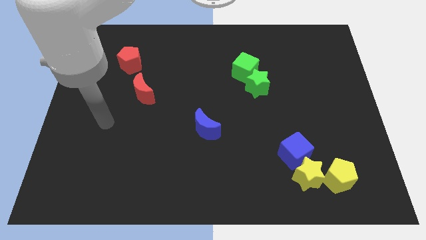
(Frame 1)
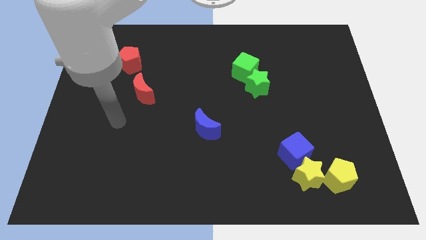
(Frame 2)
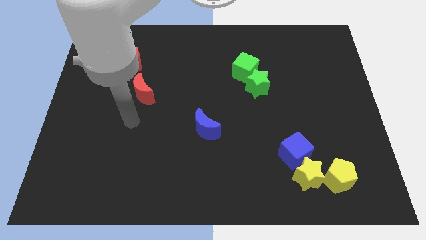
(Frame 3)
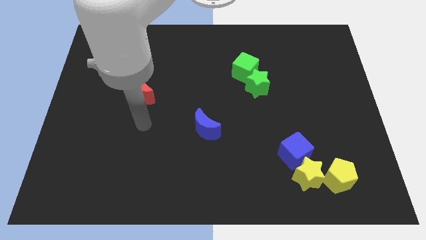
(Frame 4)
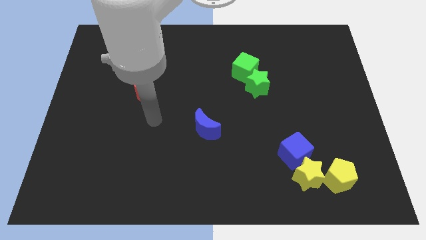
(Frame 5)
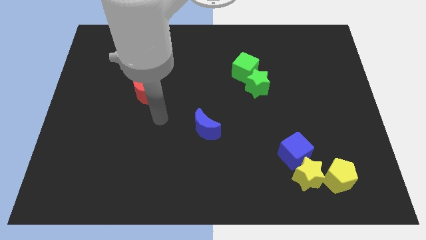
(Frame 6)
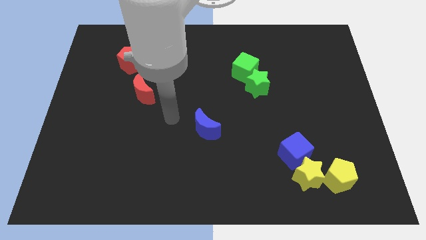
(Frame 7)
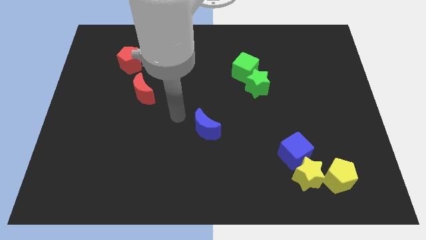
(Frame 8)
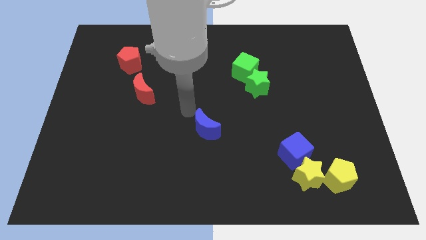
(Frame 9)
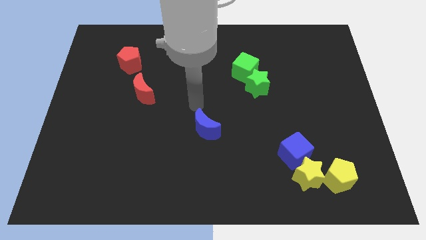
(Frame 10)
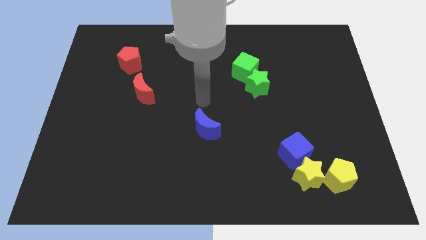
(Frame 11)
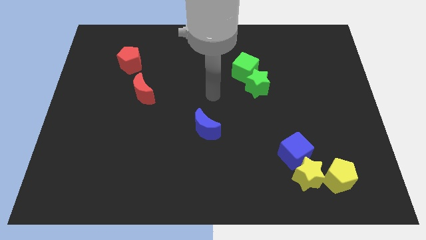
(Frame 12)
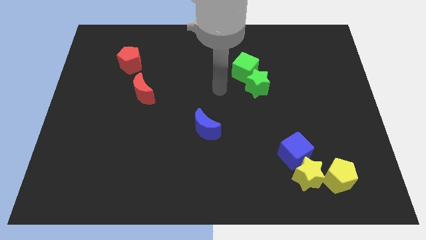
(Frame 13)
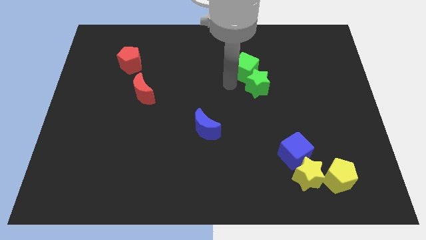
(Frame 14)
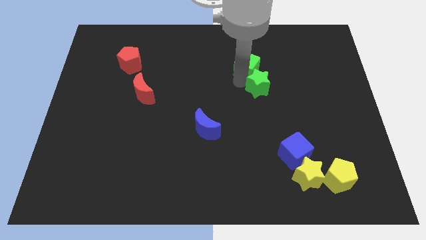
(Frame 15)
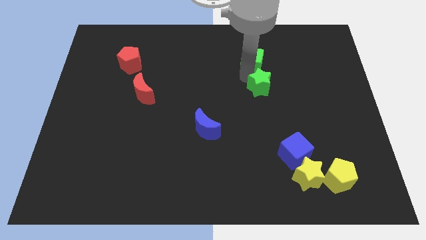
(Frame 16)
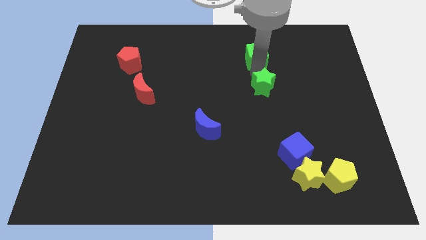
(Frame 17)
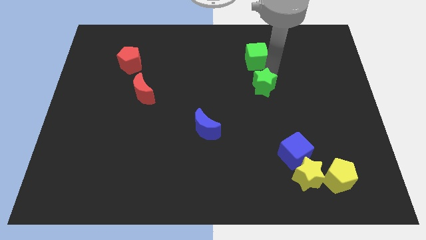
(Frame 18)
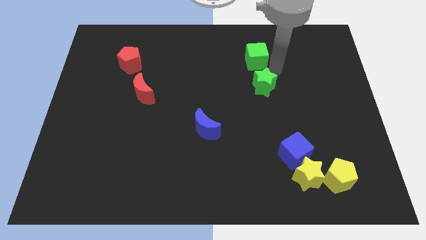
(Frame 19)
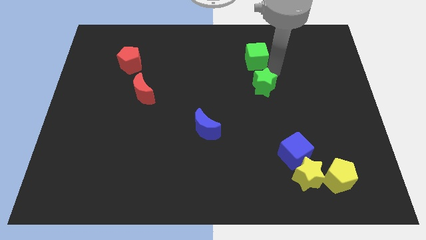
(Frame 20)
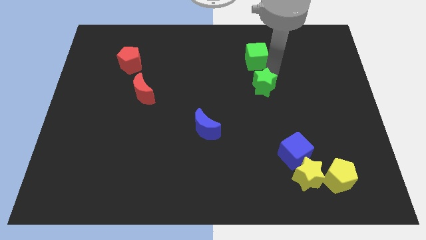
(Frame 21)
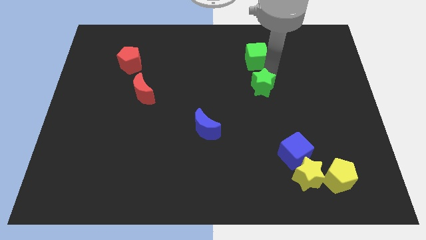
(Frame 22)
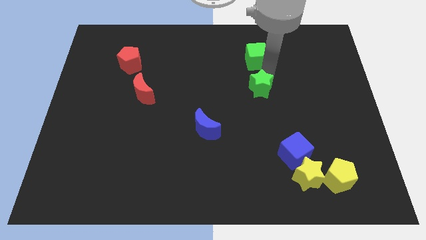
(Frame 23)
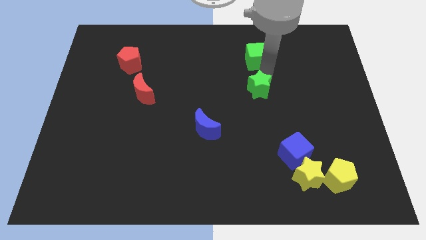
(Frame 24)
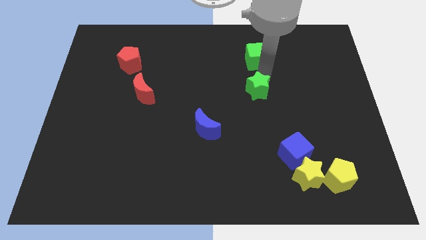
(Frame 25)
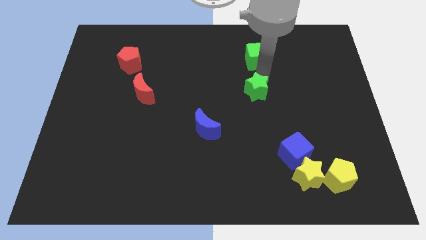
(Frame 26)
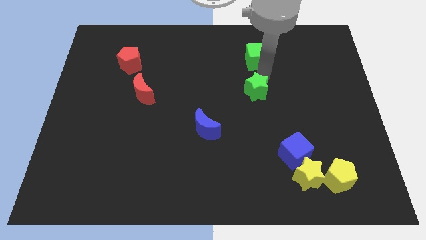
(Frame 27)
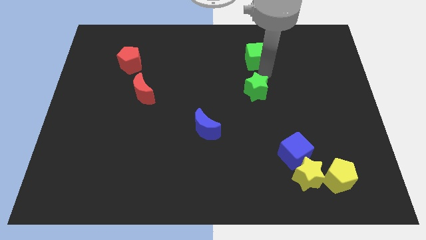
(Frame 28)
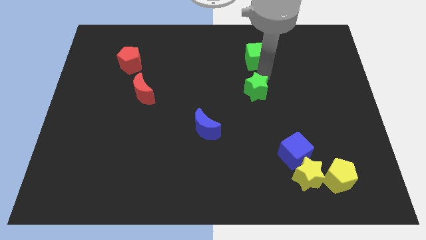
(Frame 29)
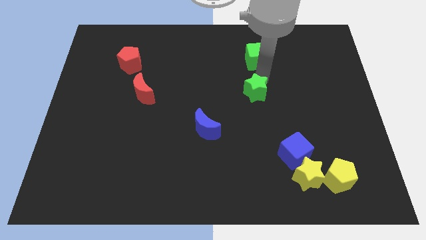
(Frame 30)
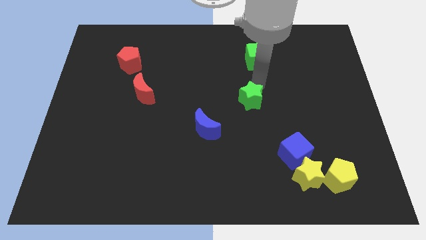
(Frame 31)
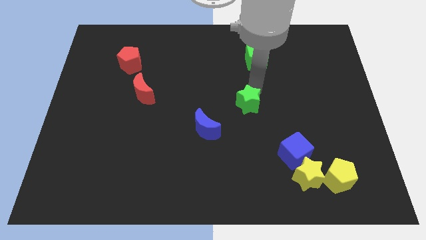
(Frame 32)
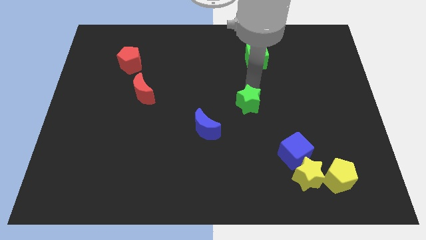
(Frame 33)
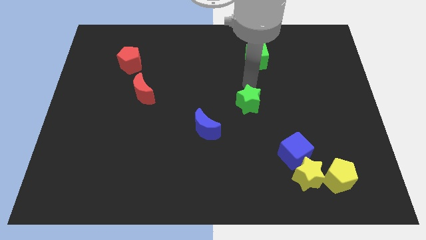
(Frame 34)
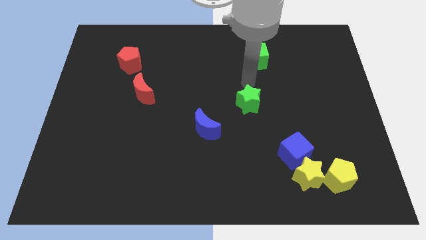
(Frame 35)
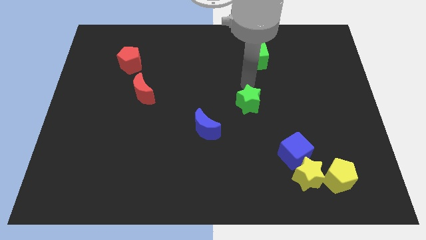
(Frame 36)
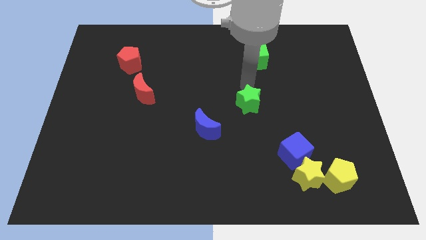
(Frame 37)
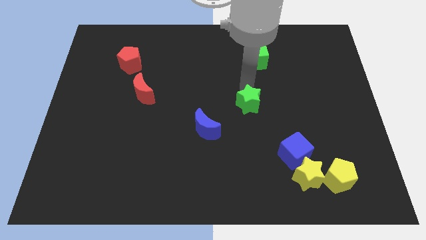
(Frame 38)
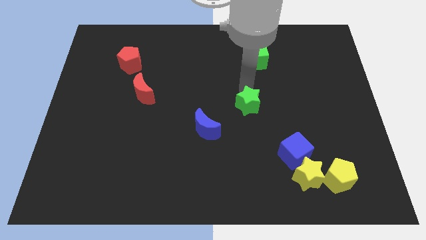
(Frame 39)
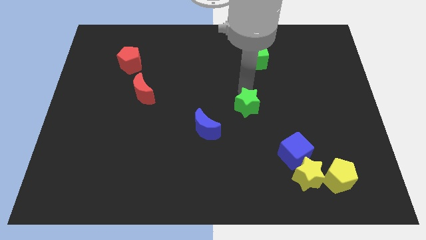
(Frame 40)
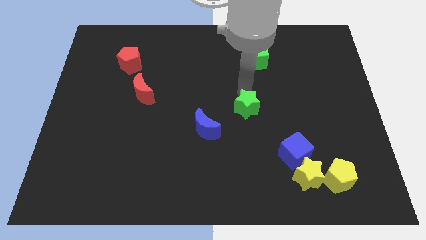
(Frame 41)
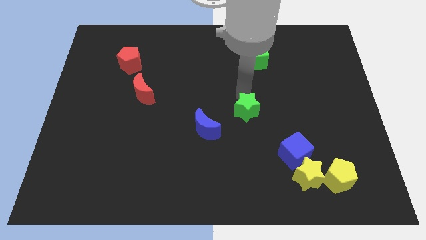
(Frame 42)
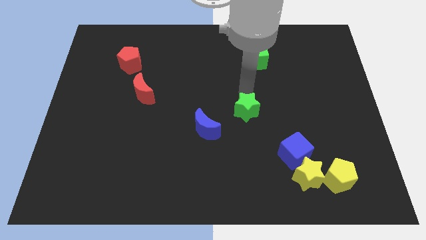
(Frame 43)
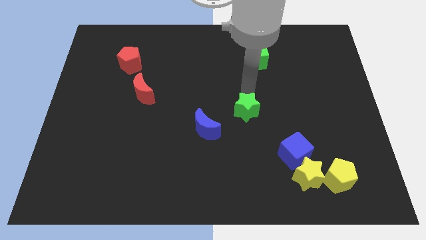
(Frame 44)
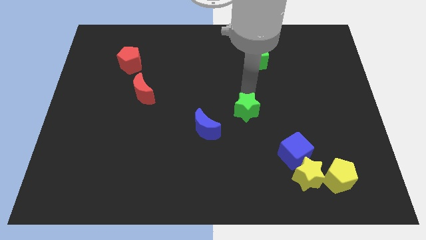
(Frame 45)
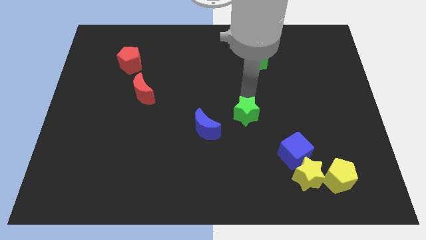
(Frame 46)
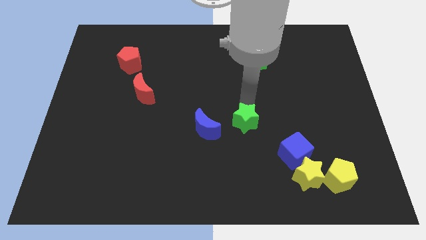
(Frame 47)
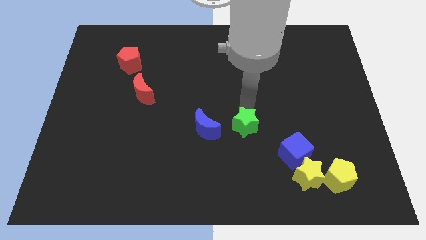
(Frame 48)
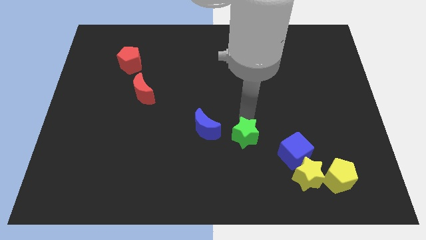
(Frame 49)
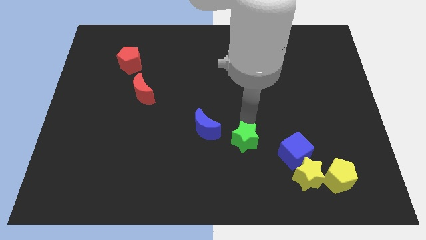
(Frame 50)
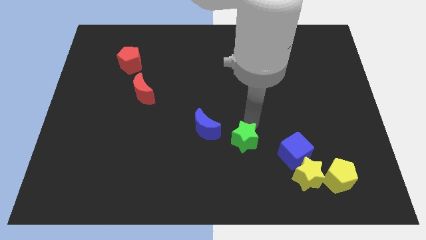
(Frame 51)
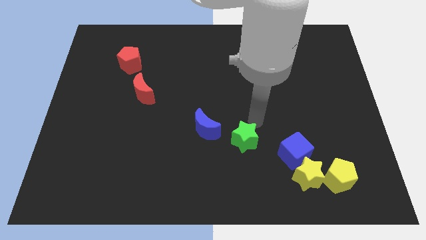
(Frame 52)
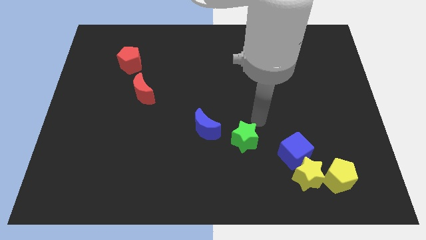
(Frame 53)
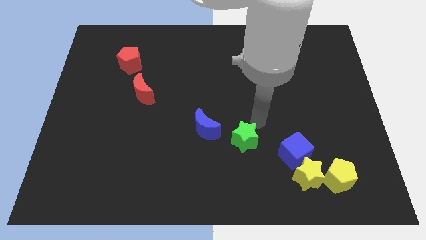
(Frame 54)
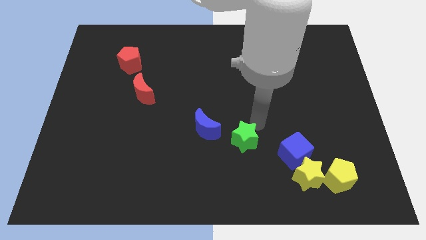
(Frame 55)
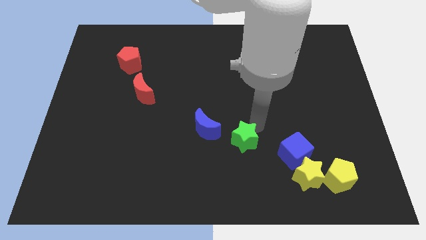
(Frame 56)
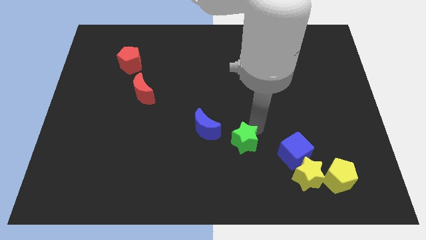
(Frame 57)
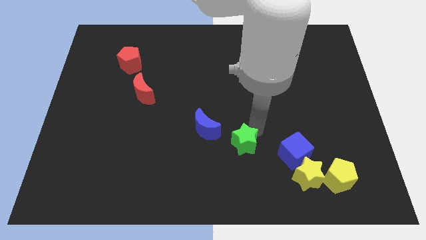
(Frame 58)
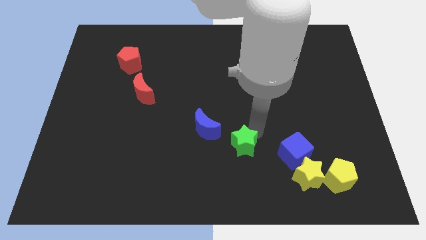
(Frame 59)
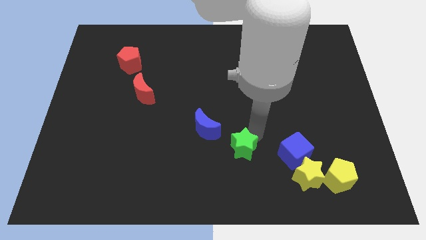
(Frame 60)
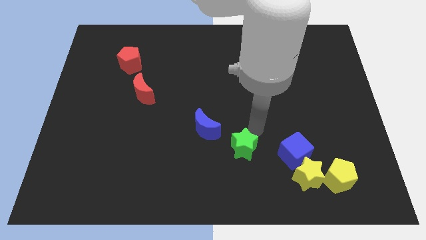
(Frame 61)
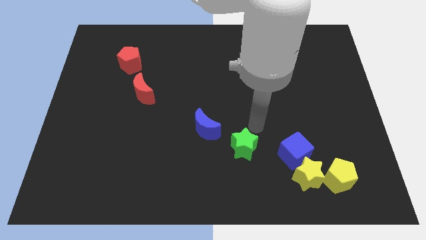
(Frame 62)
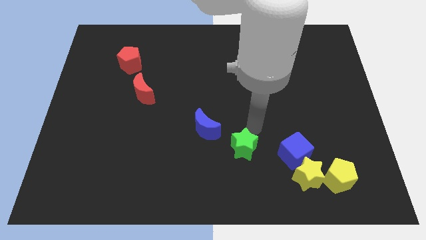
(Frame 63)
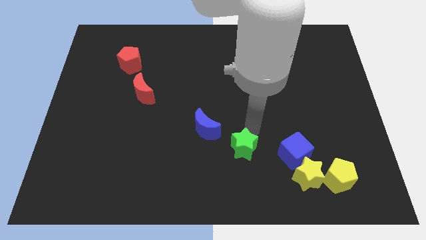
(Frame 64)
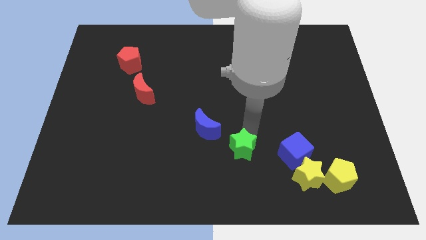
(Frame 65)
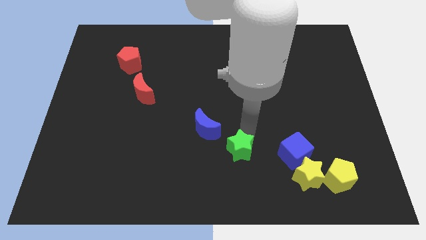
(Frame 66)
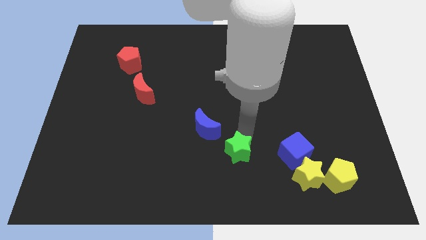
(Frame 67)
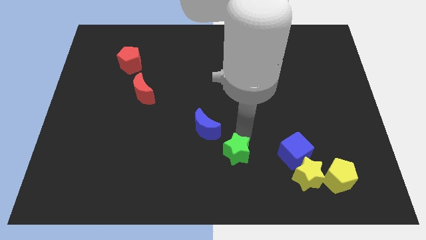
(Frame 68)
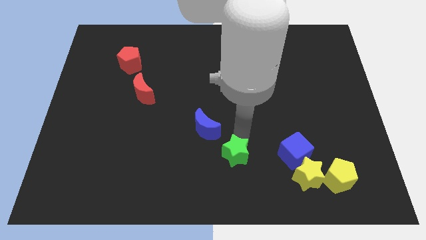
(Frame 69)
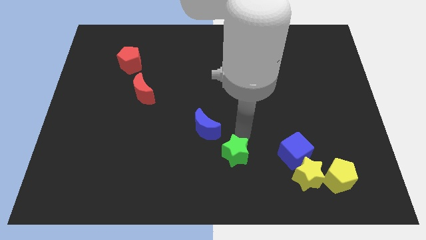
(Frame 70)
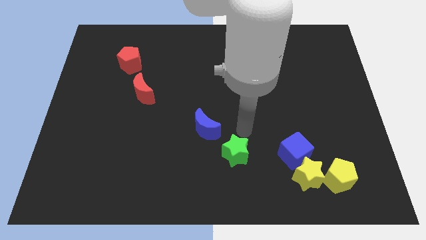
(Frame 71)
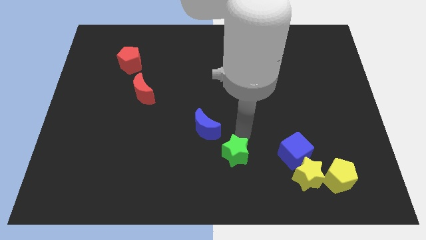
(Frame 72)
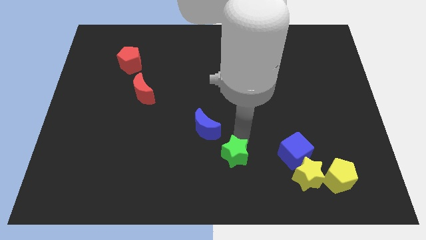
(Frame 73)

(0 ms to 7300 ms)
push the green star to the bottom
